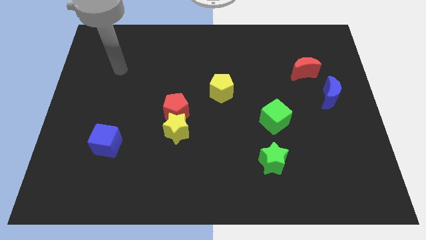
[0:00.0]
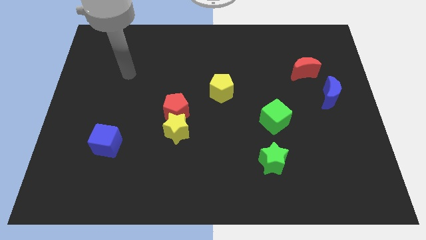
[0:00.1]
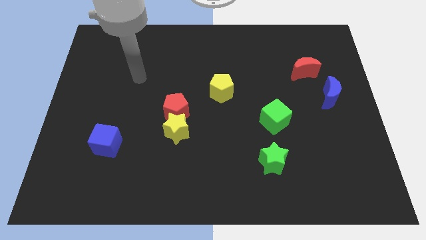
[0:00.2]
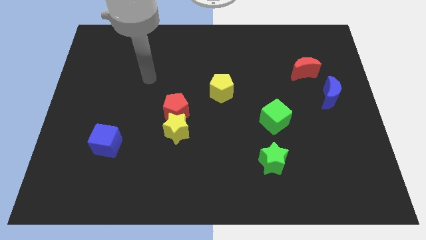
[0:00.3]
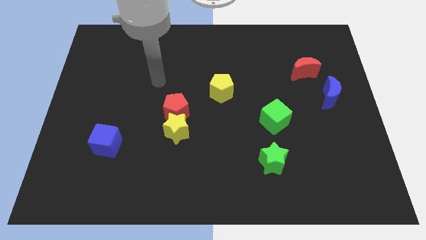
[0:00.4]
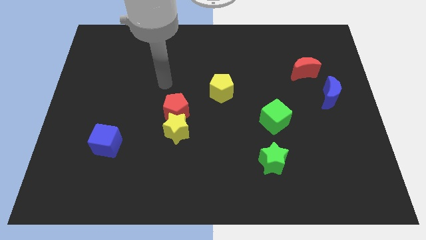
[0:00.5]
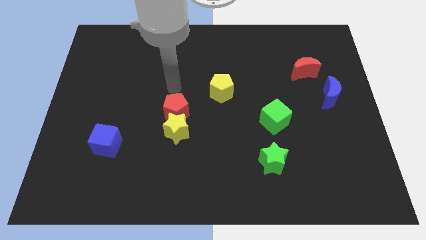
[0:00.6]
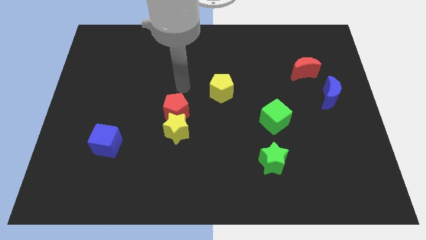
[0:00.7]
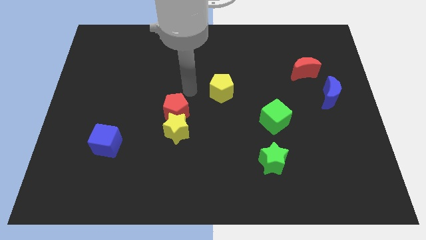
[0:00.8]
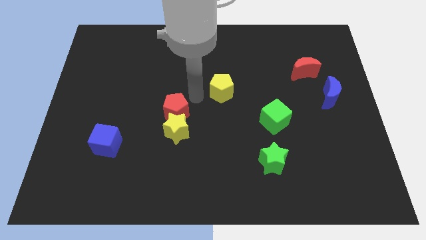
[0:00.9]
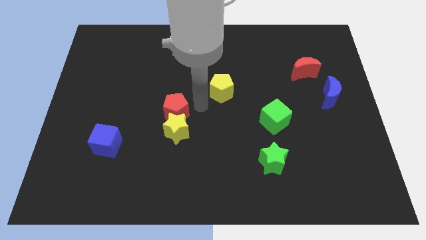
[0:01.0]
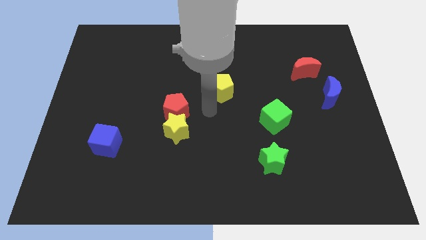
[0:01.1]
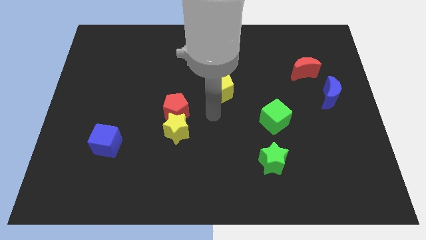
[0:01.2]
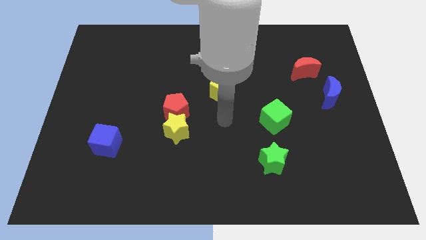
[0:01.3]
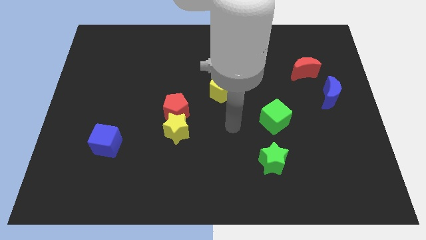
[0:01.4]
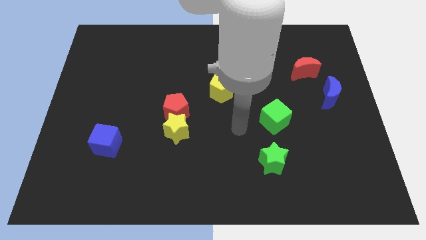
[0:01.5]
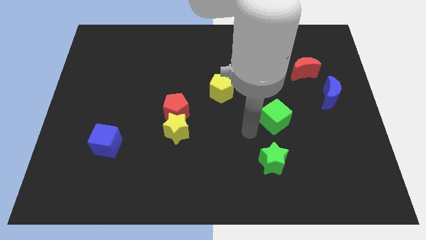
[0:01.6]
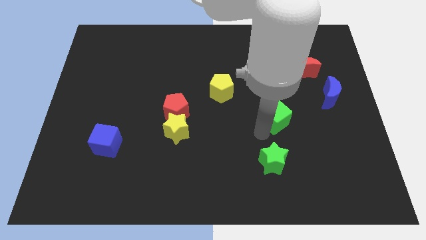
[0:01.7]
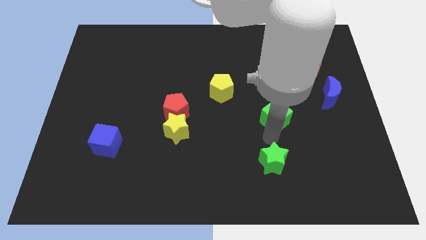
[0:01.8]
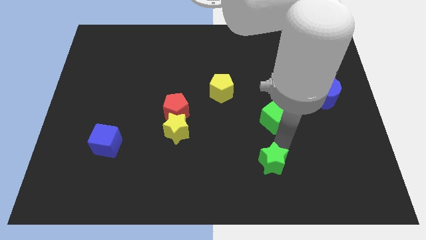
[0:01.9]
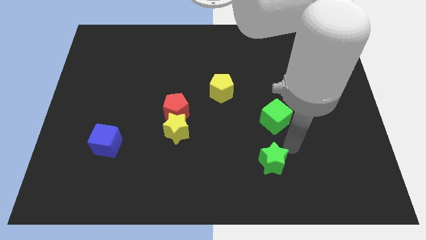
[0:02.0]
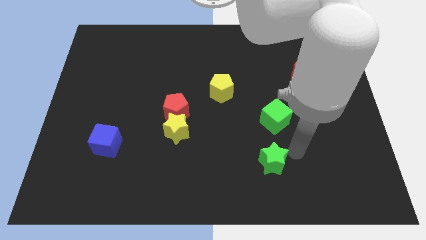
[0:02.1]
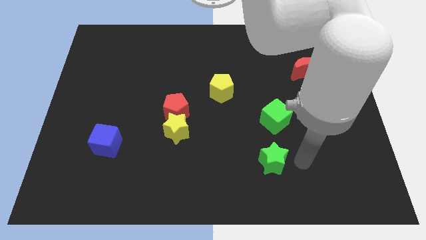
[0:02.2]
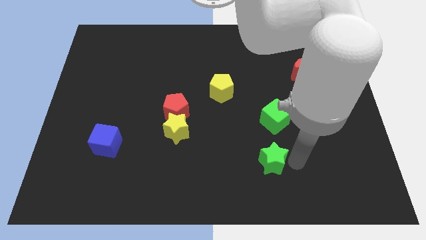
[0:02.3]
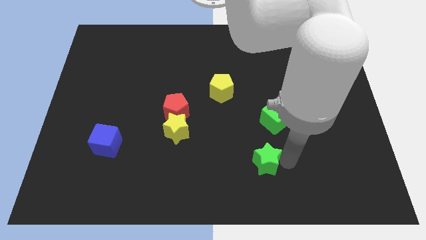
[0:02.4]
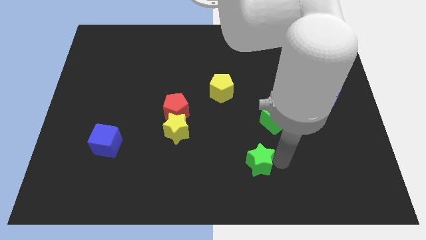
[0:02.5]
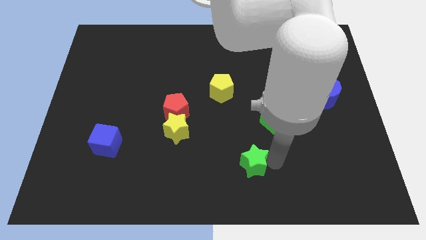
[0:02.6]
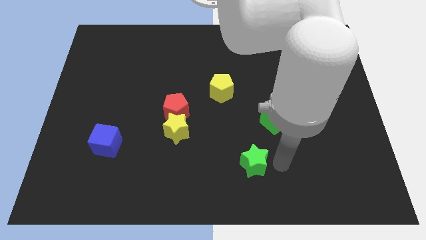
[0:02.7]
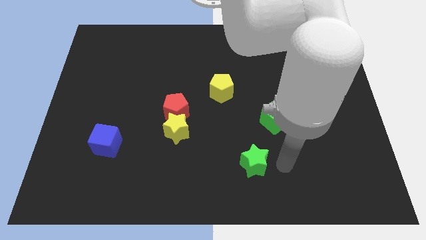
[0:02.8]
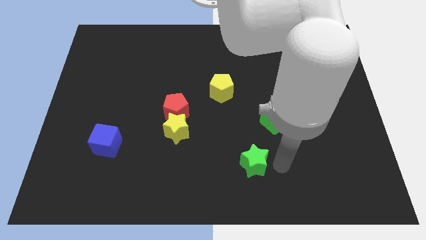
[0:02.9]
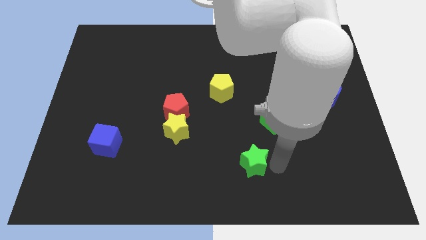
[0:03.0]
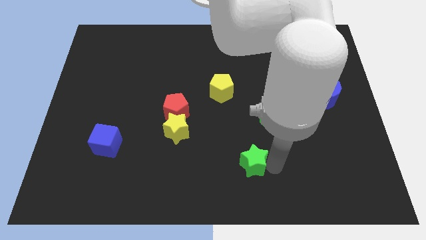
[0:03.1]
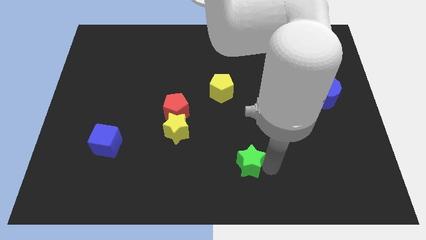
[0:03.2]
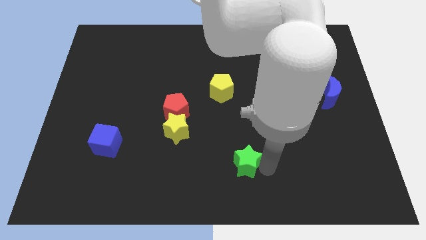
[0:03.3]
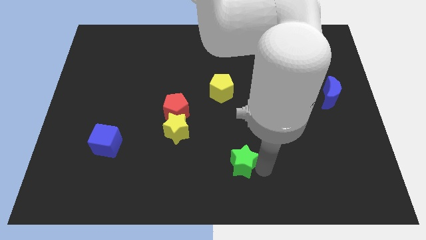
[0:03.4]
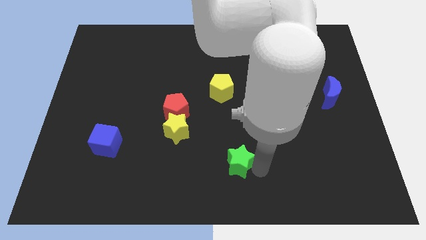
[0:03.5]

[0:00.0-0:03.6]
push the green star to the left a little bit

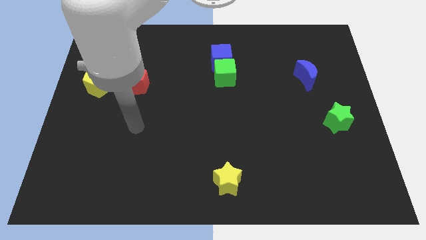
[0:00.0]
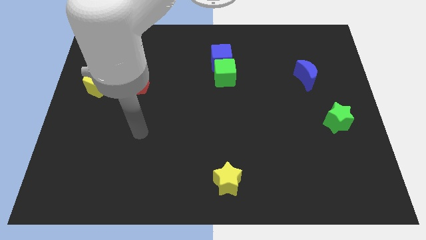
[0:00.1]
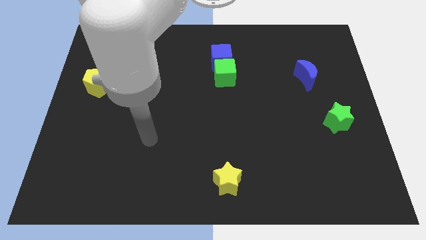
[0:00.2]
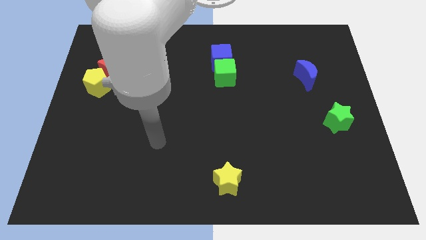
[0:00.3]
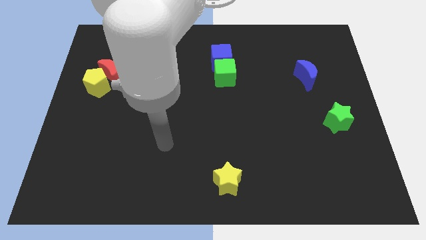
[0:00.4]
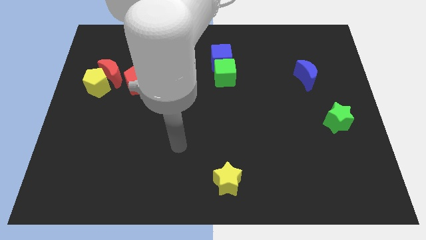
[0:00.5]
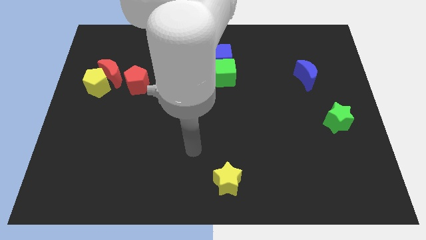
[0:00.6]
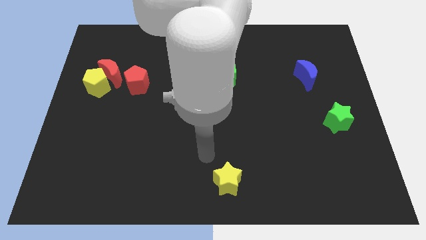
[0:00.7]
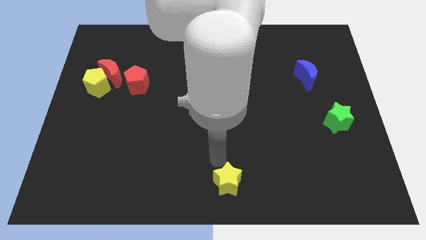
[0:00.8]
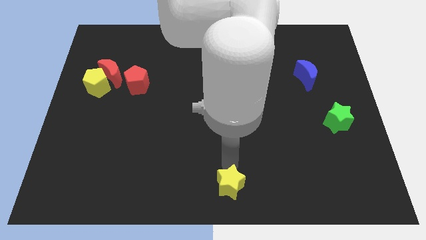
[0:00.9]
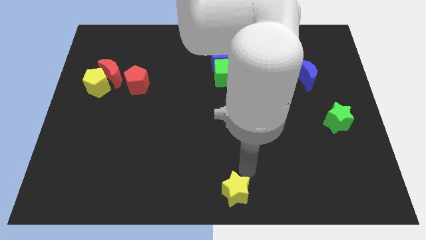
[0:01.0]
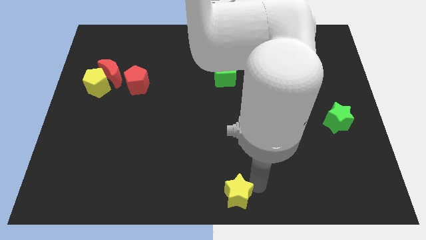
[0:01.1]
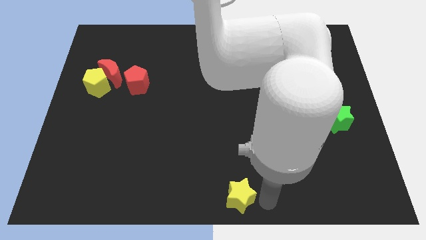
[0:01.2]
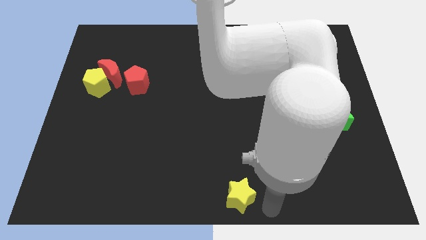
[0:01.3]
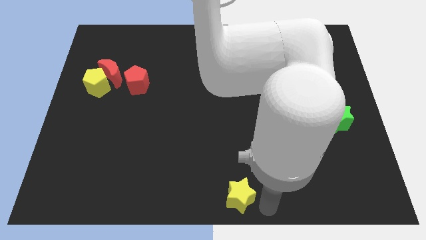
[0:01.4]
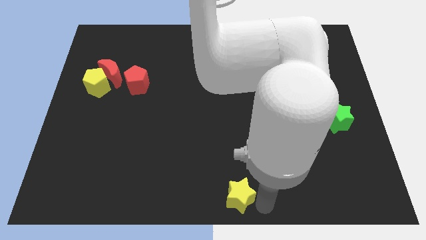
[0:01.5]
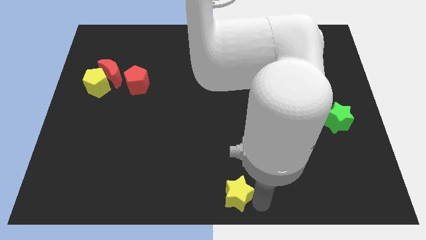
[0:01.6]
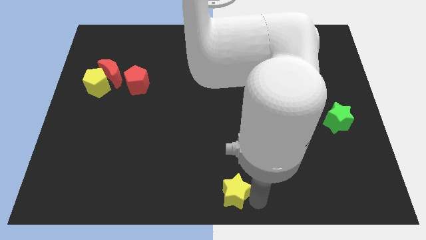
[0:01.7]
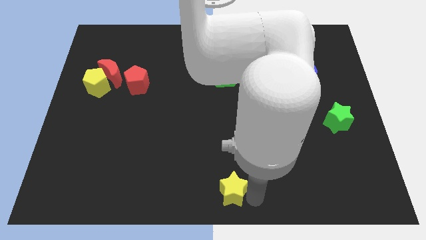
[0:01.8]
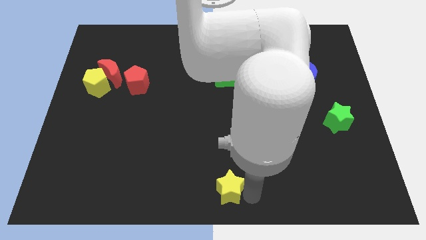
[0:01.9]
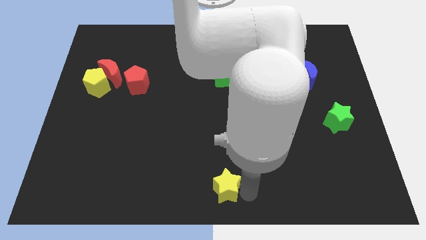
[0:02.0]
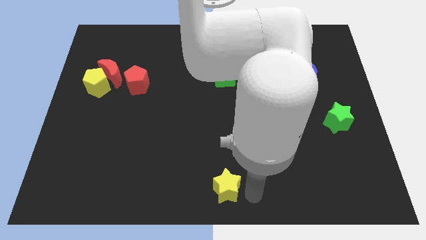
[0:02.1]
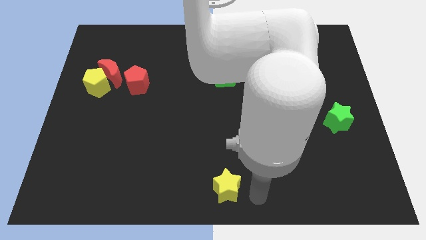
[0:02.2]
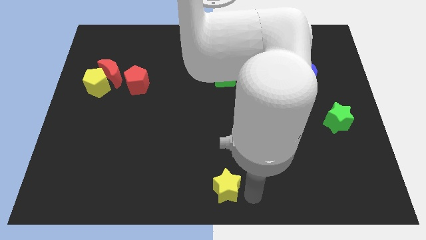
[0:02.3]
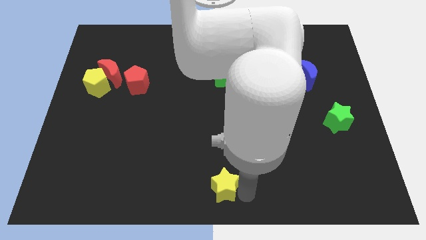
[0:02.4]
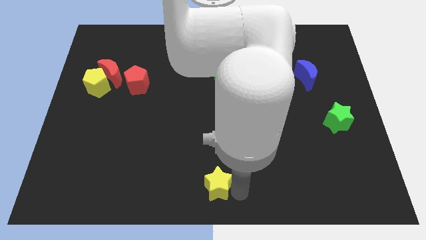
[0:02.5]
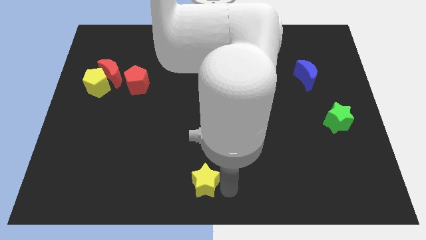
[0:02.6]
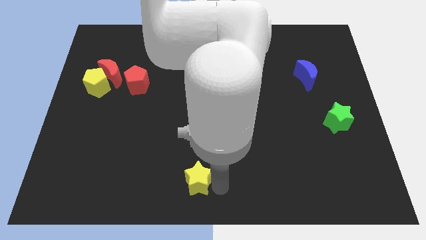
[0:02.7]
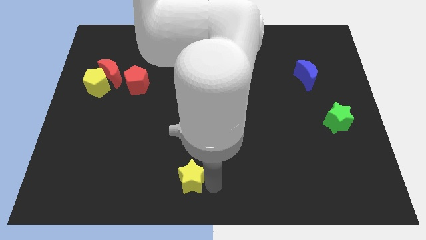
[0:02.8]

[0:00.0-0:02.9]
slightly move the yellow star left

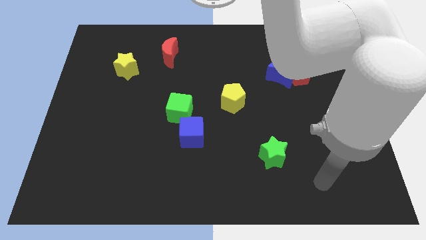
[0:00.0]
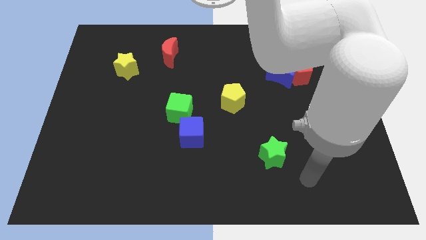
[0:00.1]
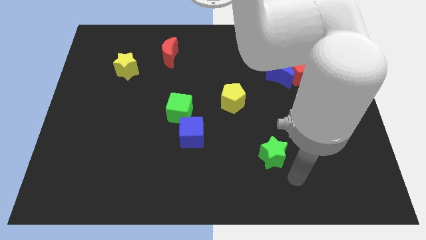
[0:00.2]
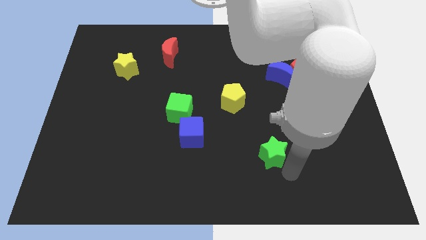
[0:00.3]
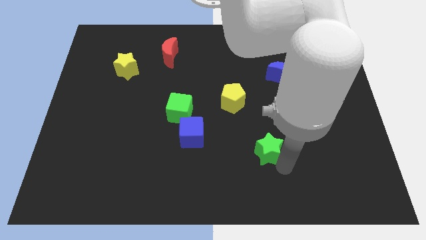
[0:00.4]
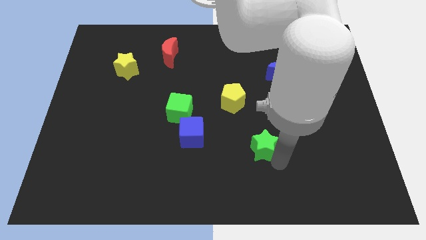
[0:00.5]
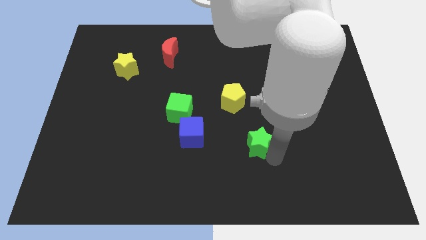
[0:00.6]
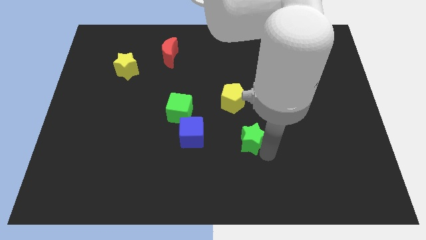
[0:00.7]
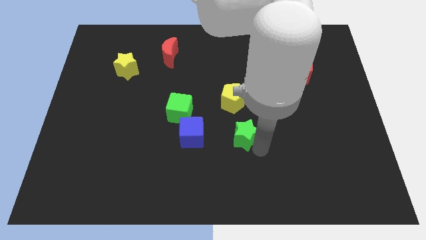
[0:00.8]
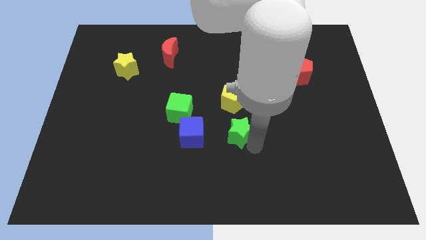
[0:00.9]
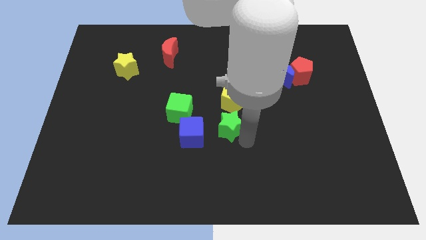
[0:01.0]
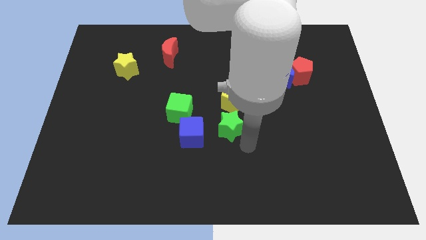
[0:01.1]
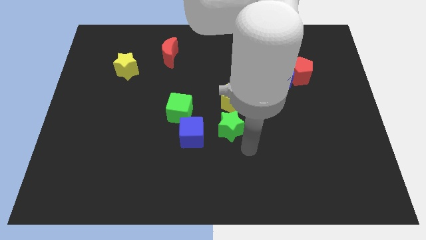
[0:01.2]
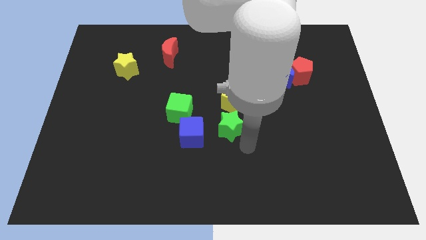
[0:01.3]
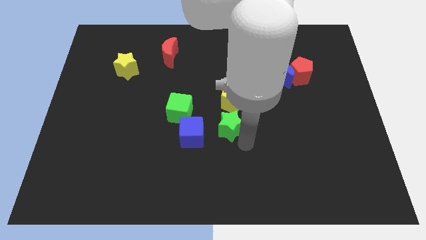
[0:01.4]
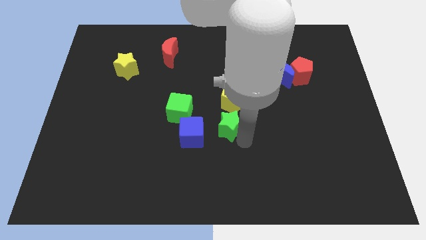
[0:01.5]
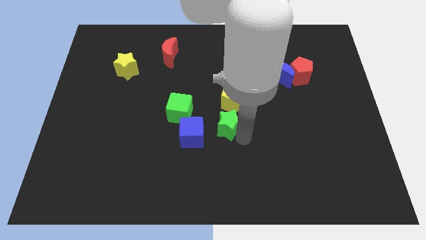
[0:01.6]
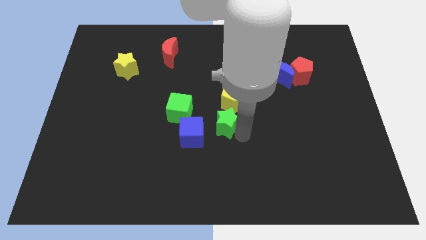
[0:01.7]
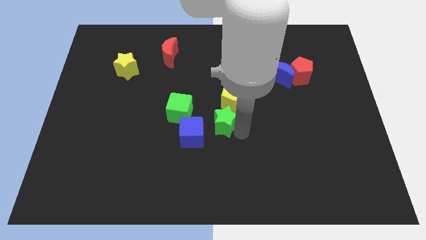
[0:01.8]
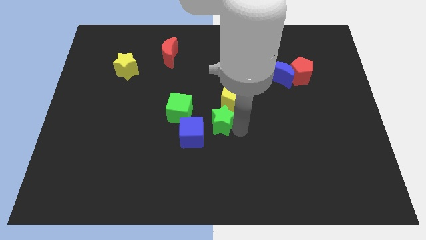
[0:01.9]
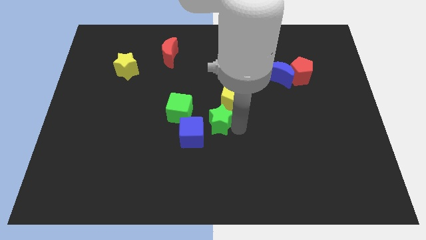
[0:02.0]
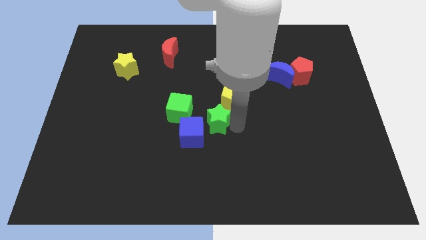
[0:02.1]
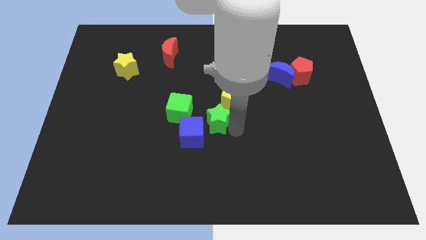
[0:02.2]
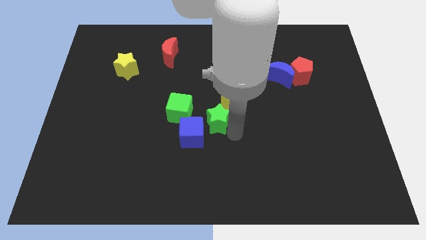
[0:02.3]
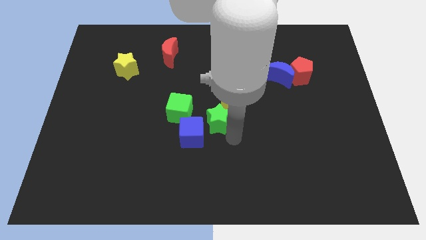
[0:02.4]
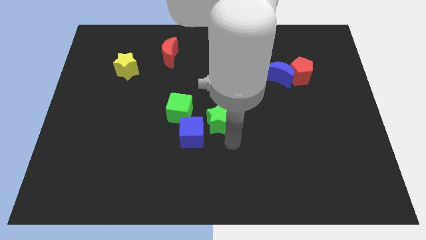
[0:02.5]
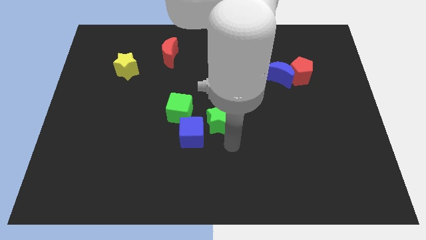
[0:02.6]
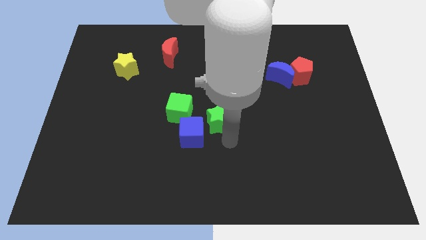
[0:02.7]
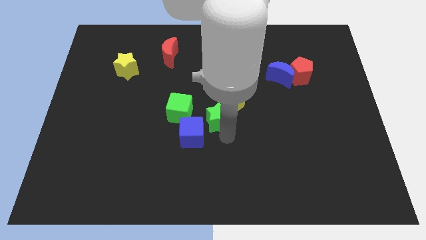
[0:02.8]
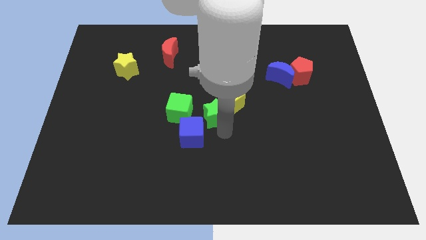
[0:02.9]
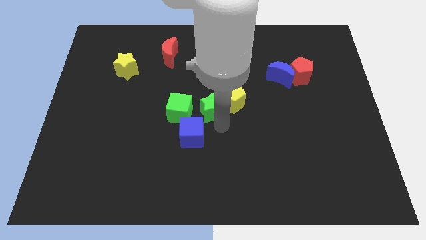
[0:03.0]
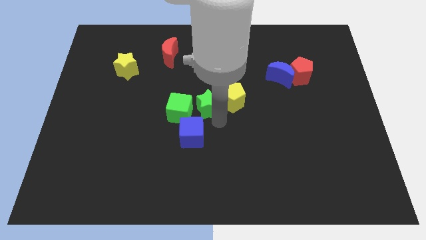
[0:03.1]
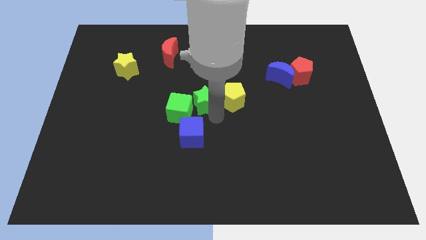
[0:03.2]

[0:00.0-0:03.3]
push the green star up and left diagonally
